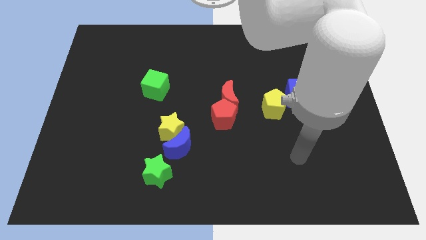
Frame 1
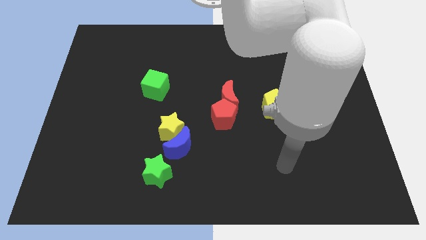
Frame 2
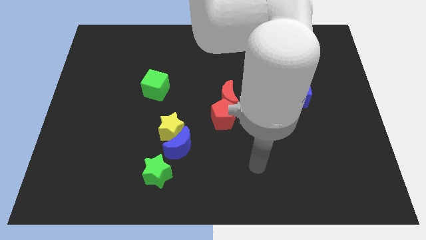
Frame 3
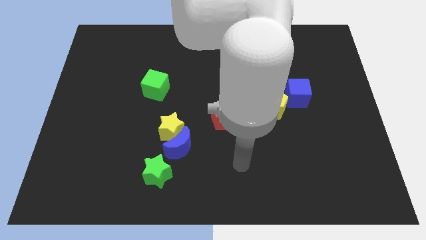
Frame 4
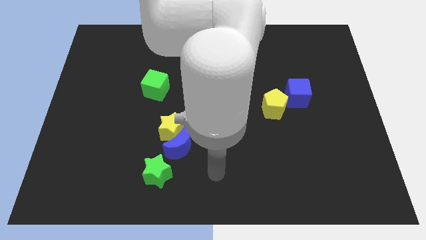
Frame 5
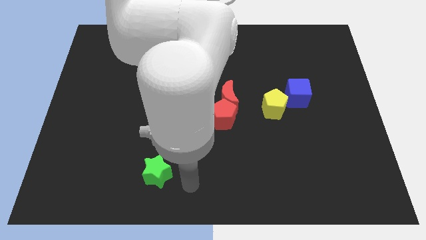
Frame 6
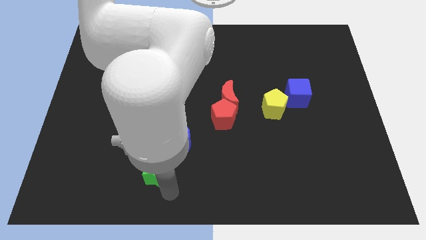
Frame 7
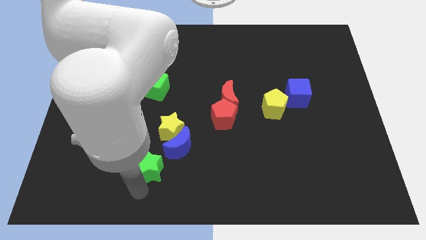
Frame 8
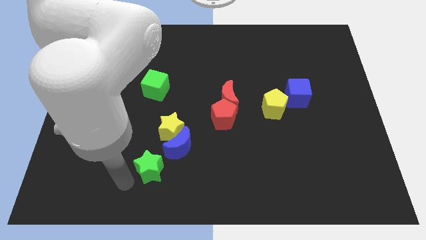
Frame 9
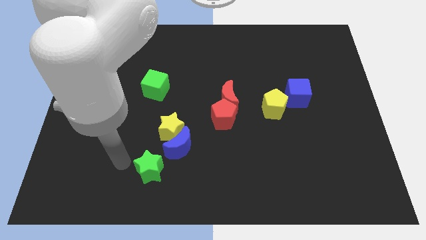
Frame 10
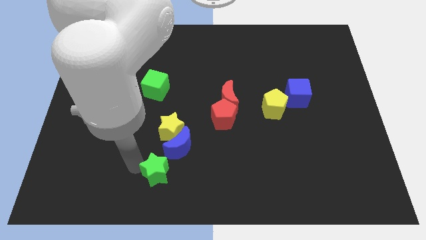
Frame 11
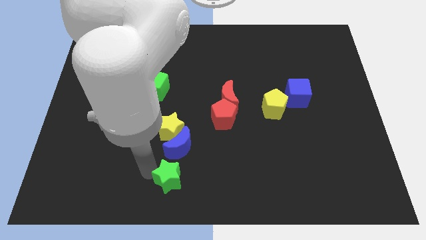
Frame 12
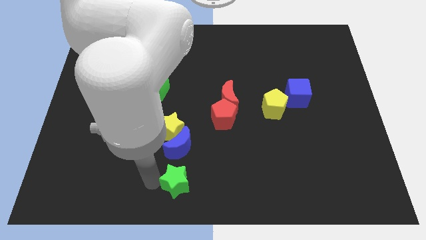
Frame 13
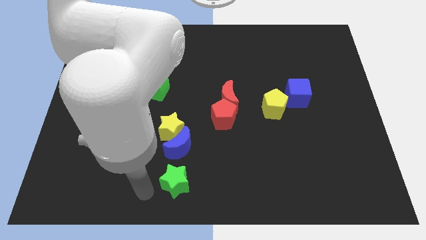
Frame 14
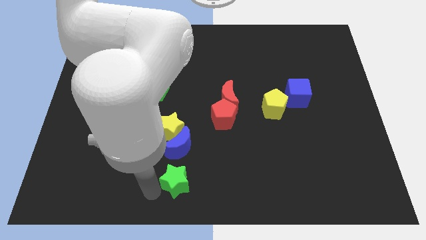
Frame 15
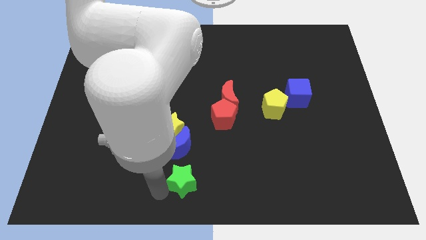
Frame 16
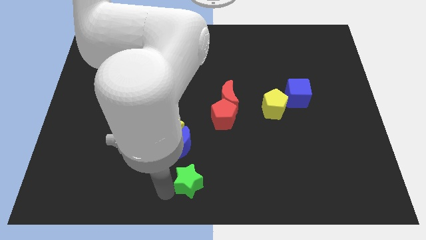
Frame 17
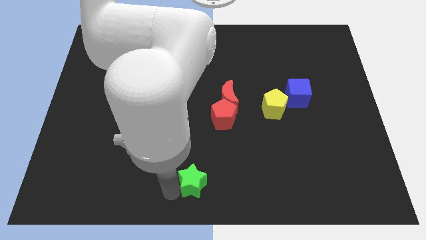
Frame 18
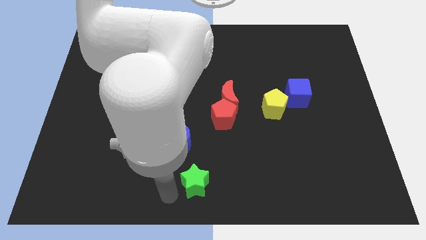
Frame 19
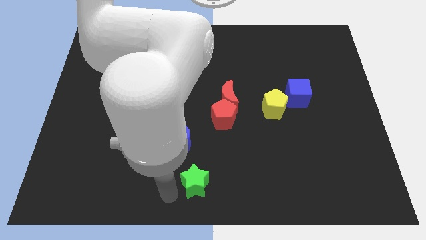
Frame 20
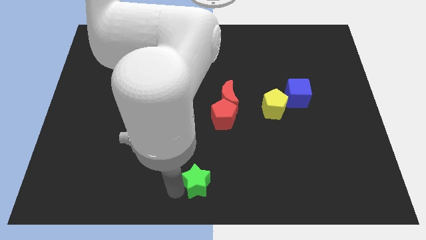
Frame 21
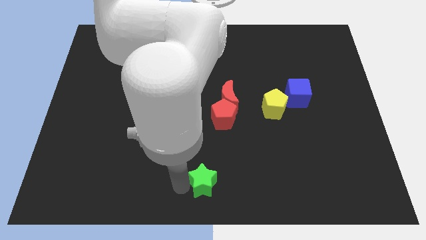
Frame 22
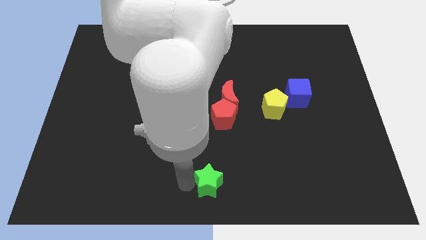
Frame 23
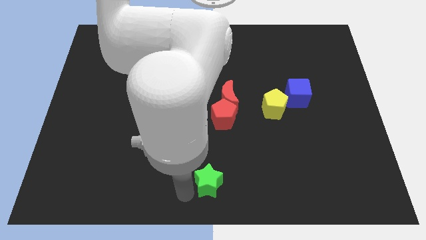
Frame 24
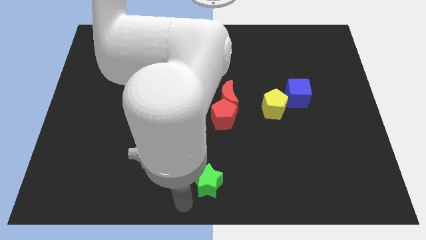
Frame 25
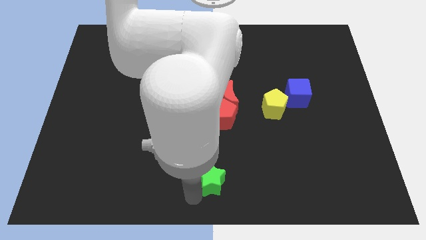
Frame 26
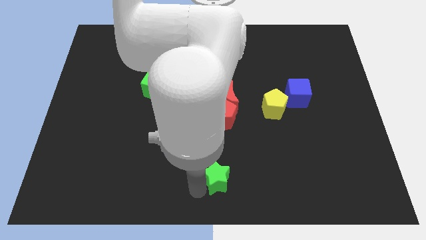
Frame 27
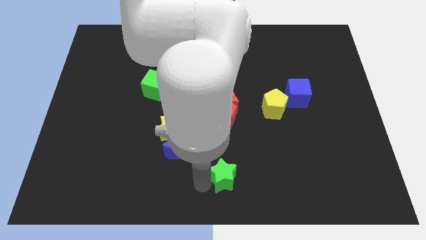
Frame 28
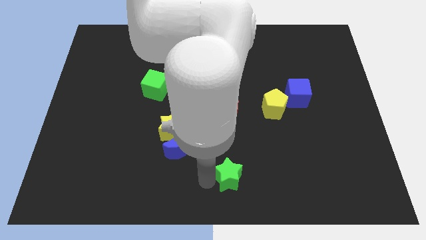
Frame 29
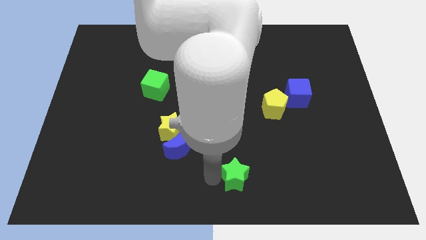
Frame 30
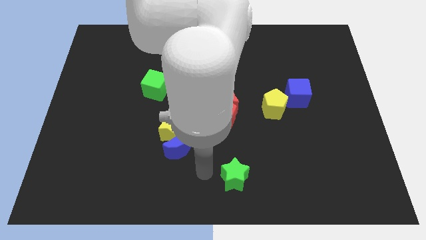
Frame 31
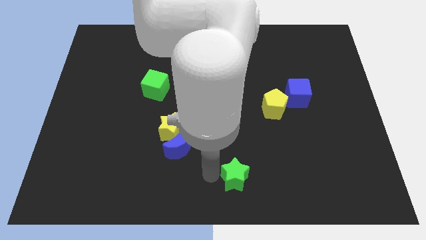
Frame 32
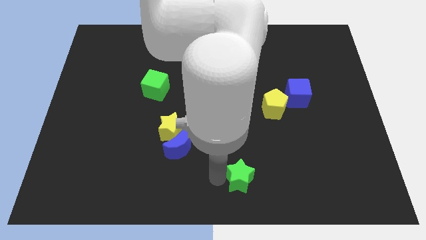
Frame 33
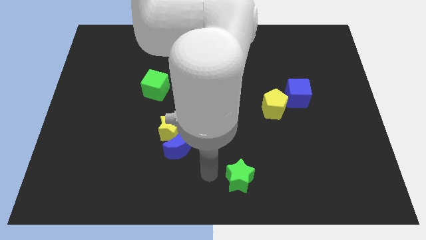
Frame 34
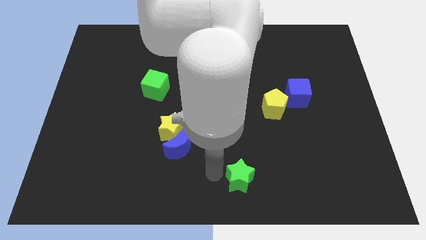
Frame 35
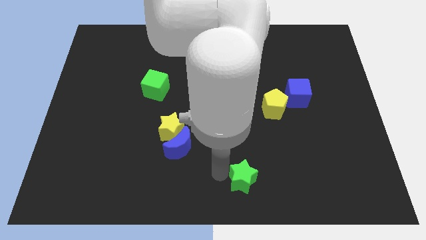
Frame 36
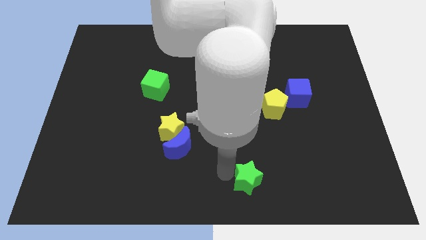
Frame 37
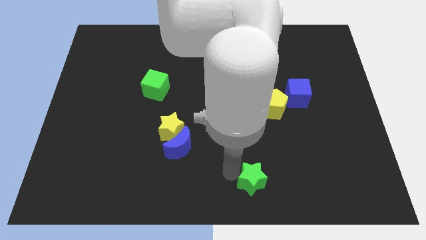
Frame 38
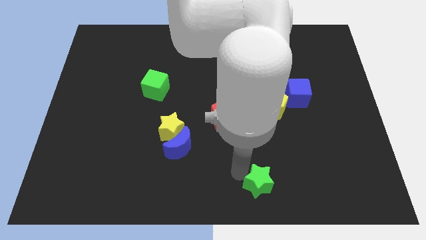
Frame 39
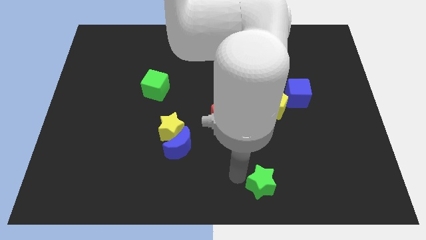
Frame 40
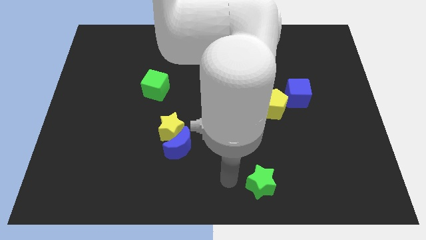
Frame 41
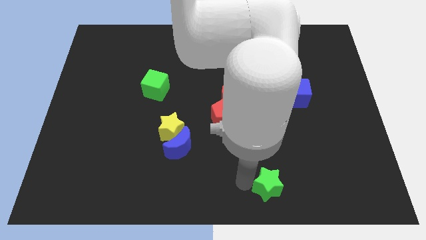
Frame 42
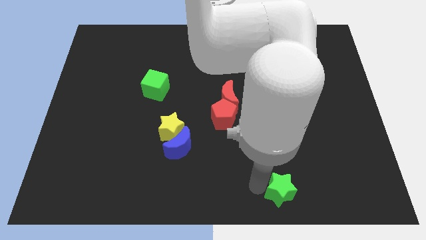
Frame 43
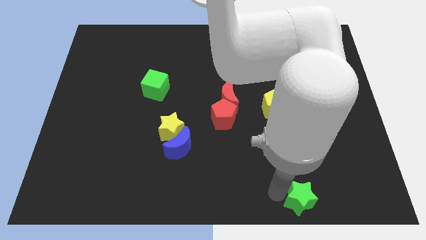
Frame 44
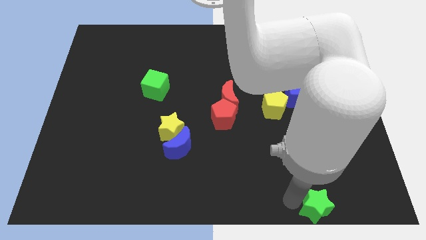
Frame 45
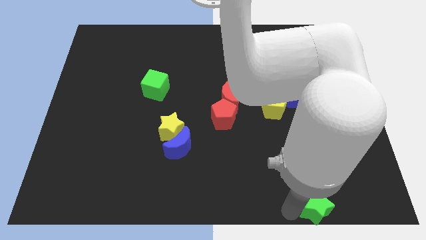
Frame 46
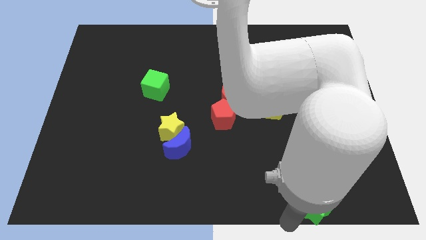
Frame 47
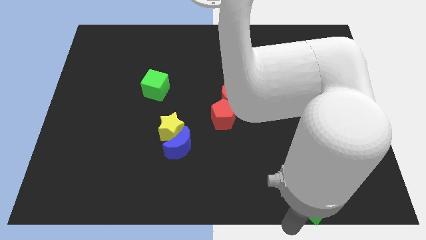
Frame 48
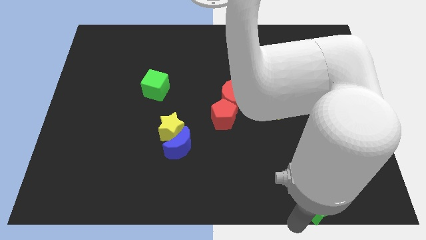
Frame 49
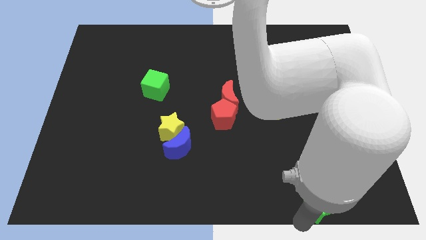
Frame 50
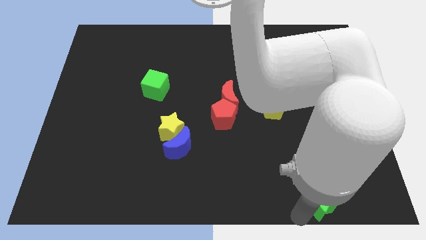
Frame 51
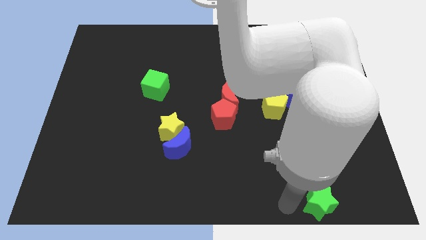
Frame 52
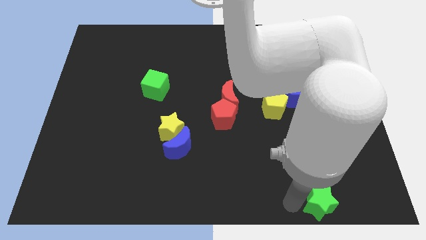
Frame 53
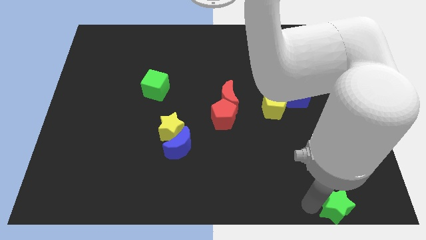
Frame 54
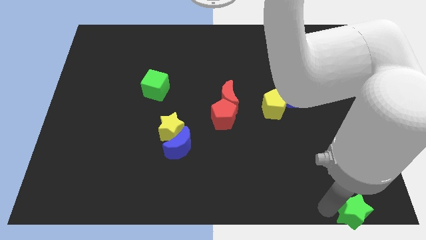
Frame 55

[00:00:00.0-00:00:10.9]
push the green star to the bottom right of the board

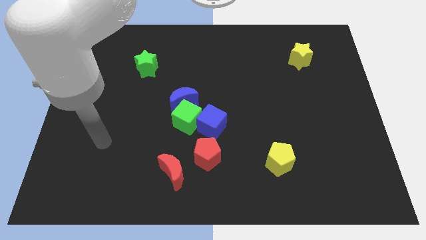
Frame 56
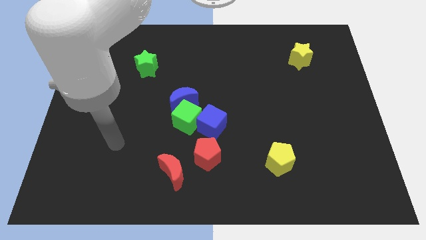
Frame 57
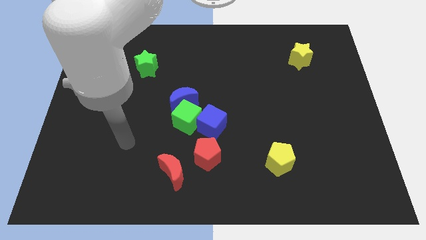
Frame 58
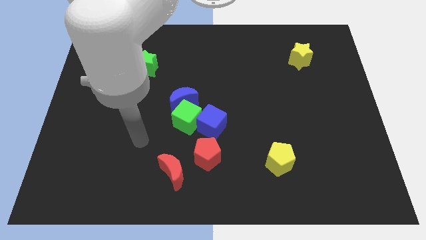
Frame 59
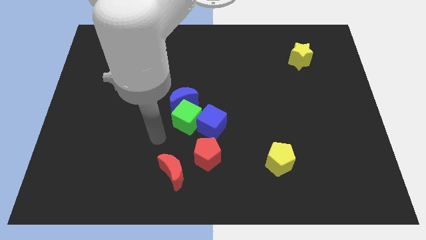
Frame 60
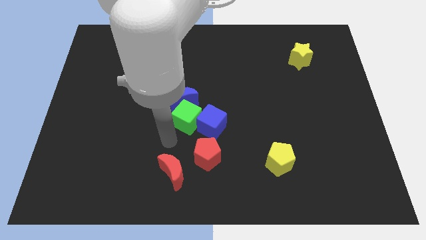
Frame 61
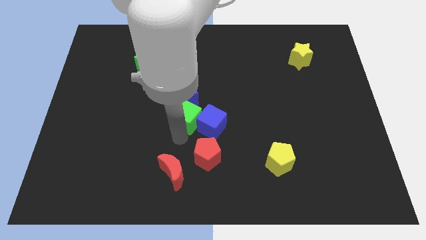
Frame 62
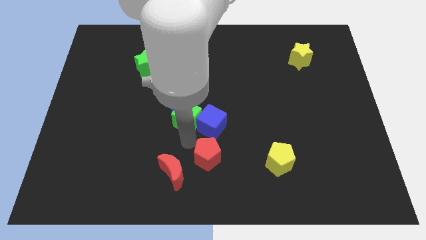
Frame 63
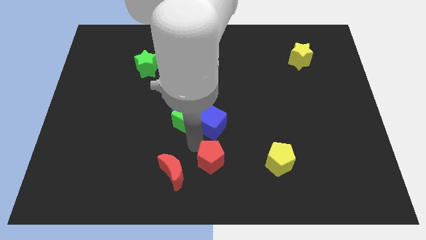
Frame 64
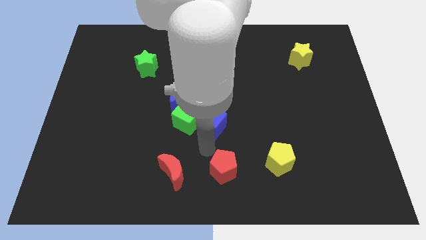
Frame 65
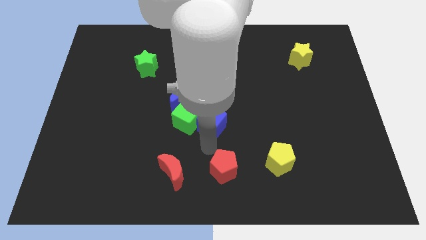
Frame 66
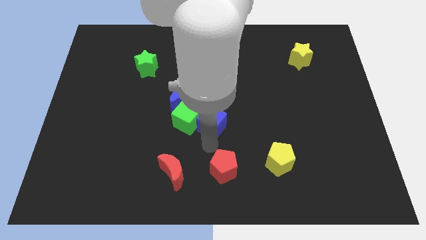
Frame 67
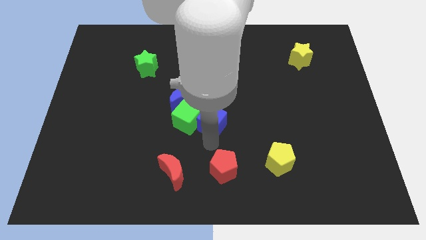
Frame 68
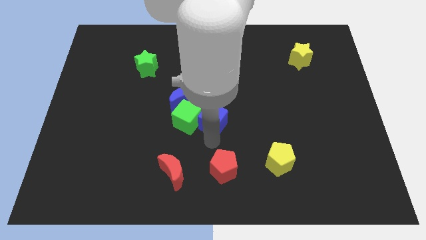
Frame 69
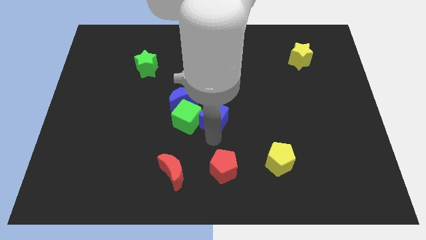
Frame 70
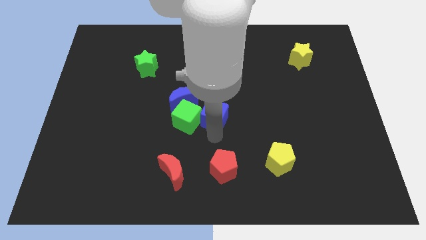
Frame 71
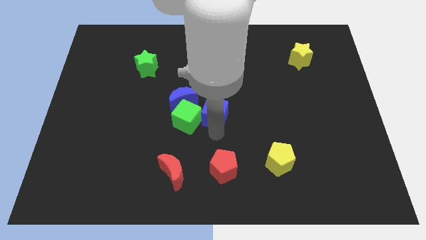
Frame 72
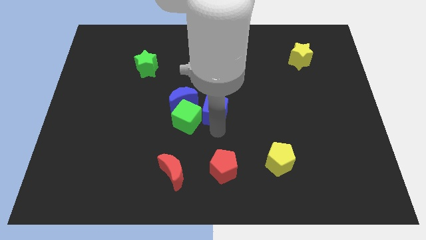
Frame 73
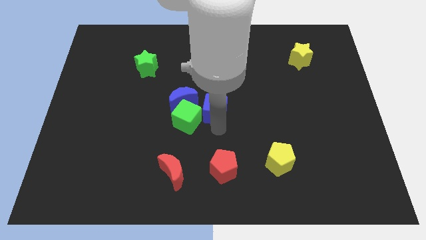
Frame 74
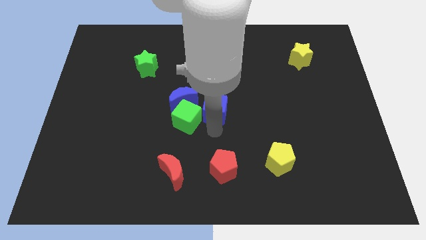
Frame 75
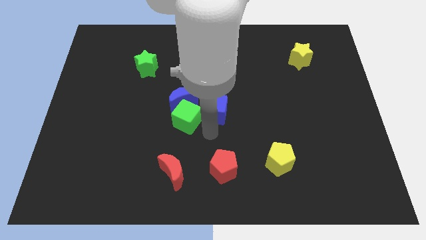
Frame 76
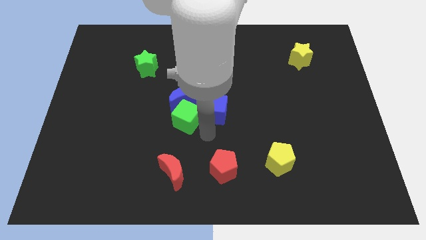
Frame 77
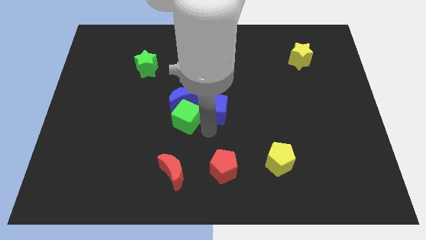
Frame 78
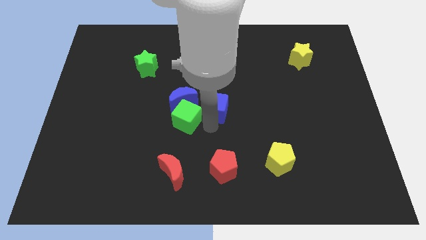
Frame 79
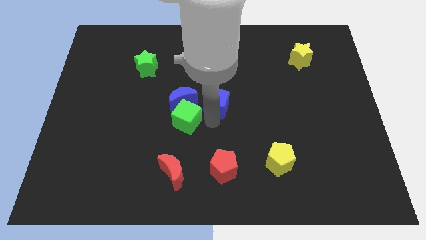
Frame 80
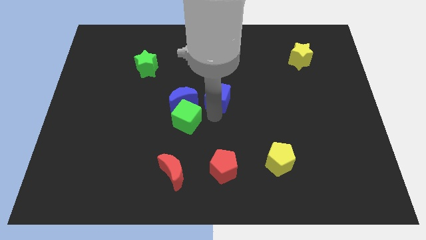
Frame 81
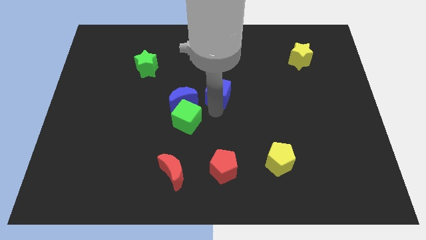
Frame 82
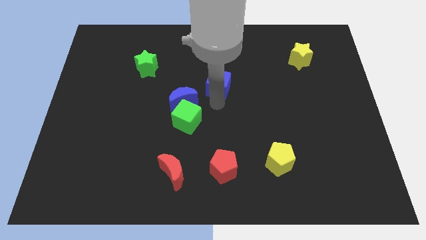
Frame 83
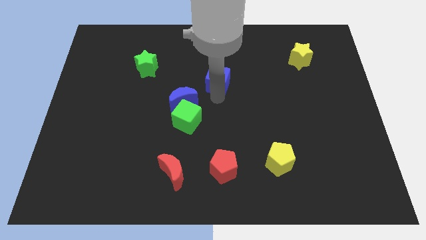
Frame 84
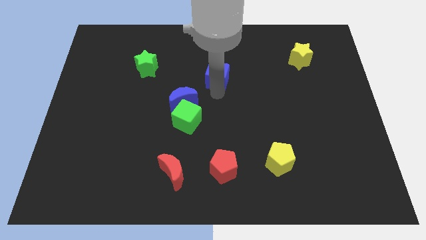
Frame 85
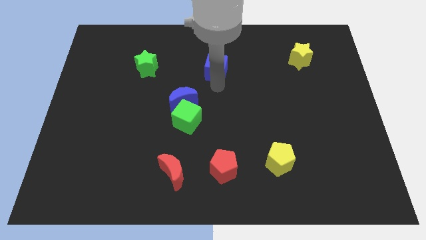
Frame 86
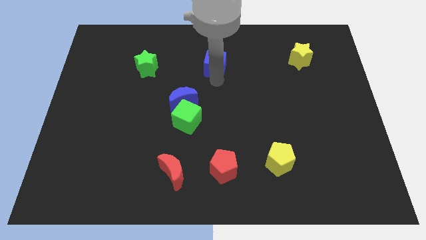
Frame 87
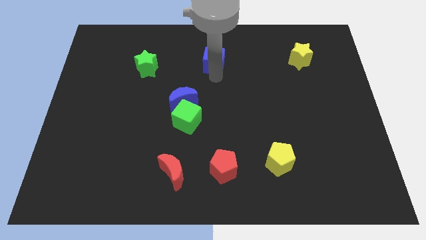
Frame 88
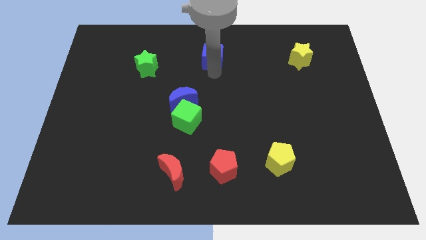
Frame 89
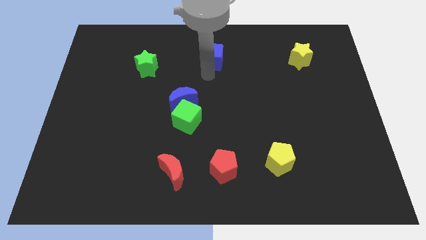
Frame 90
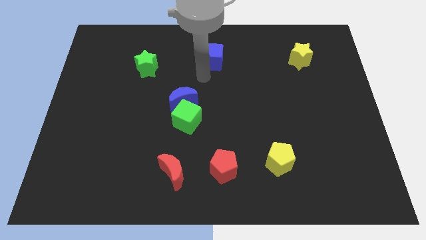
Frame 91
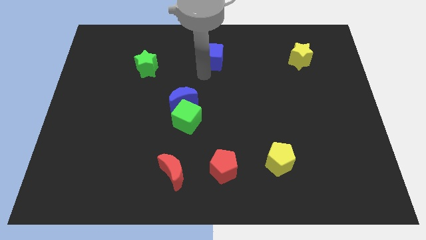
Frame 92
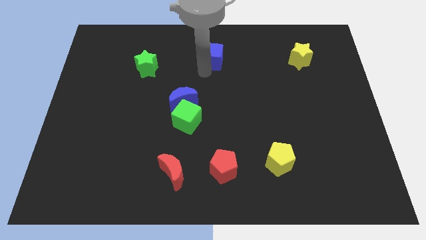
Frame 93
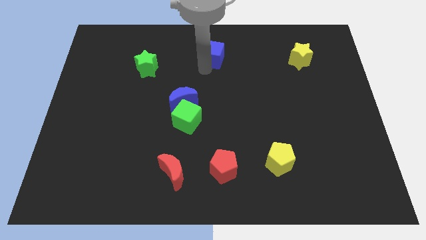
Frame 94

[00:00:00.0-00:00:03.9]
push the blue cube to the top side
